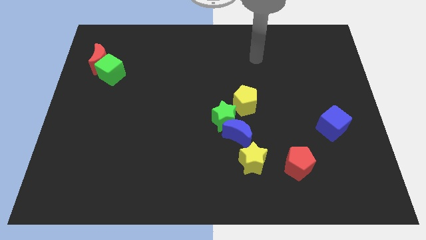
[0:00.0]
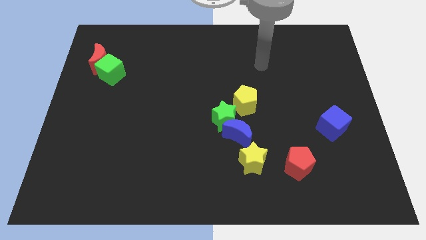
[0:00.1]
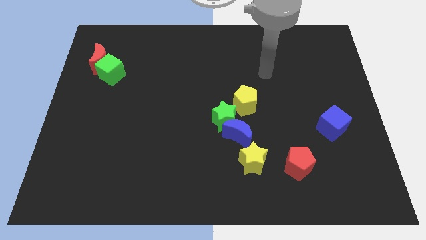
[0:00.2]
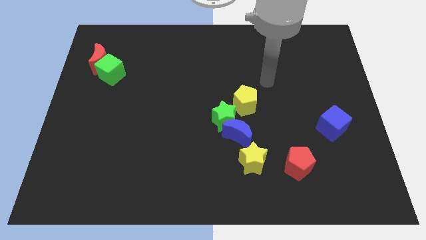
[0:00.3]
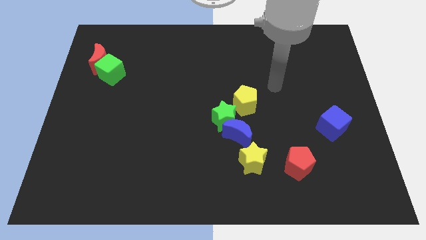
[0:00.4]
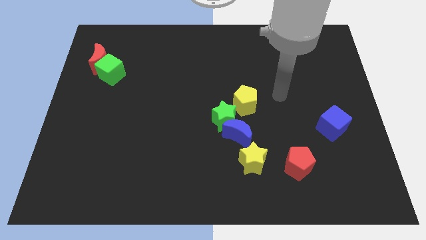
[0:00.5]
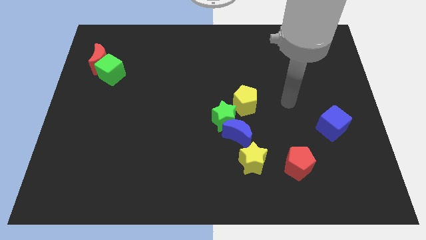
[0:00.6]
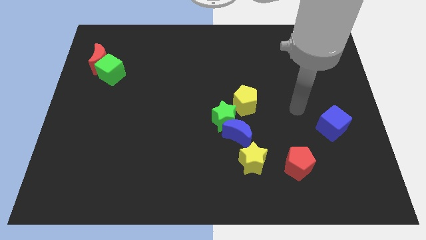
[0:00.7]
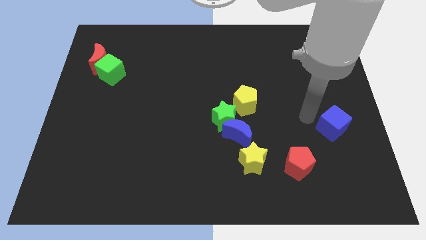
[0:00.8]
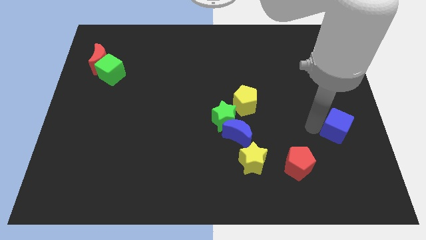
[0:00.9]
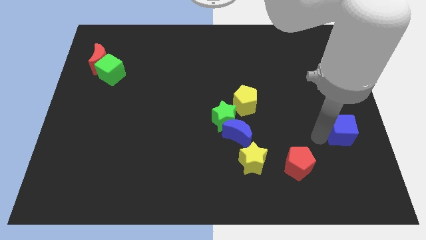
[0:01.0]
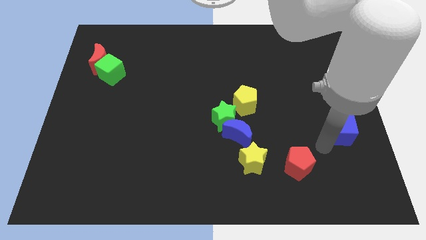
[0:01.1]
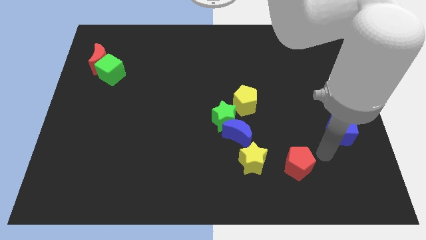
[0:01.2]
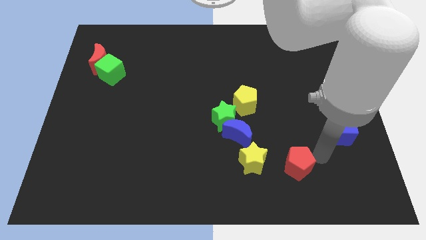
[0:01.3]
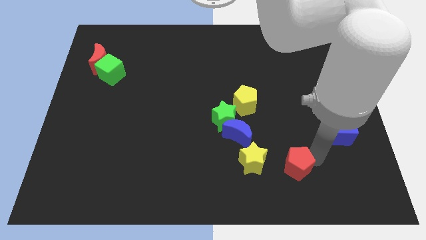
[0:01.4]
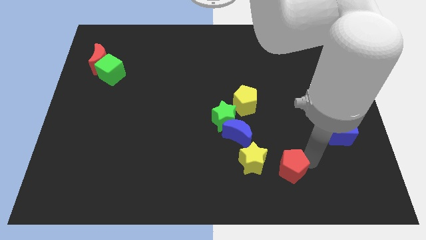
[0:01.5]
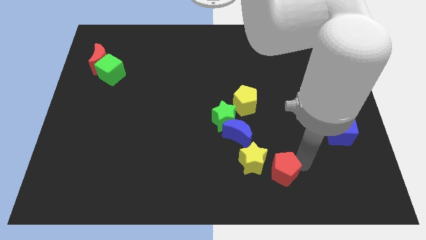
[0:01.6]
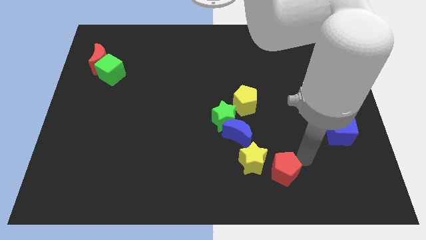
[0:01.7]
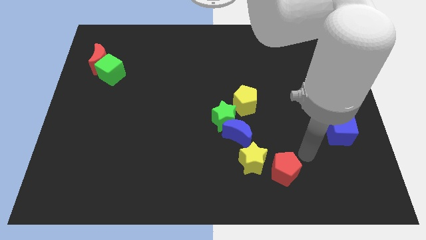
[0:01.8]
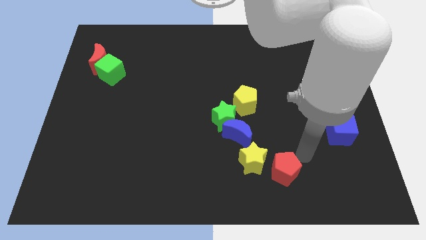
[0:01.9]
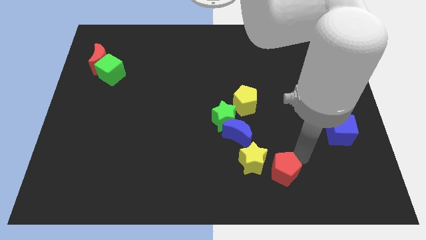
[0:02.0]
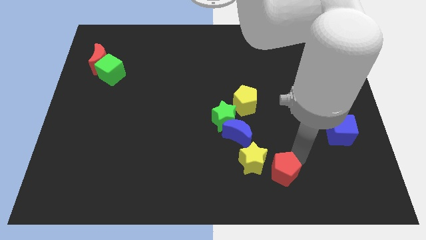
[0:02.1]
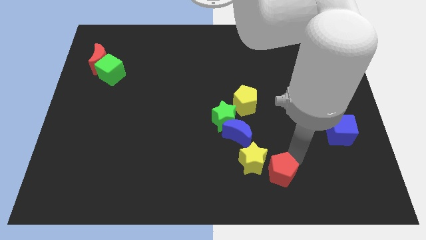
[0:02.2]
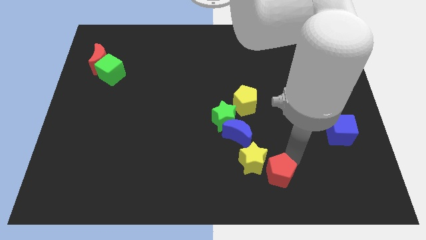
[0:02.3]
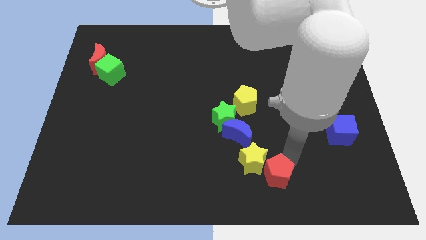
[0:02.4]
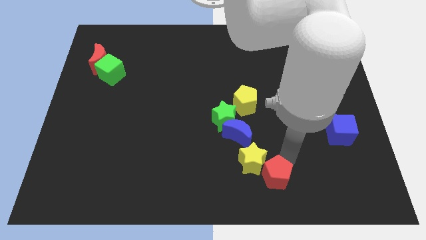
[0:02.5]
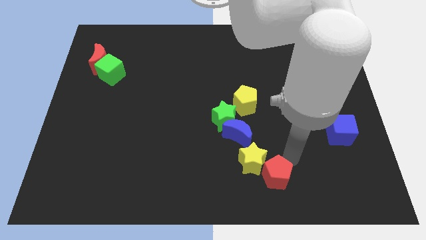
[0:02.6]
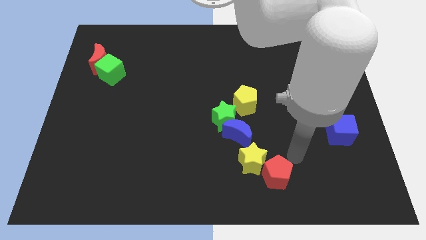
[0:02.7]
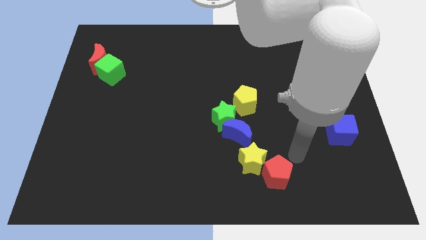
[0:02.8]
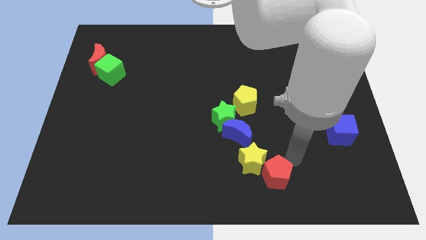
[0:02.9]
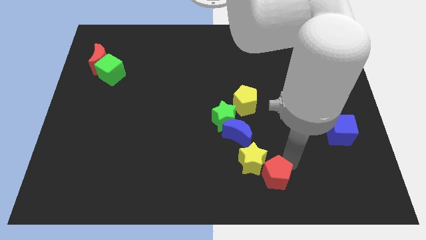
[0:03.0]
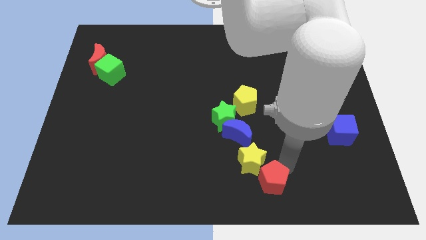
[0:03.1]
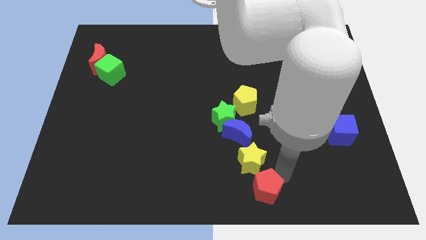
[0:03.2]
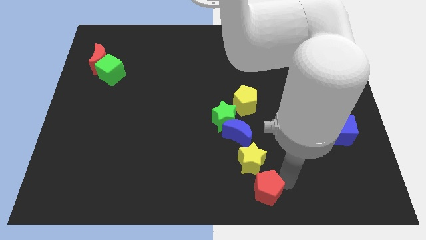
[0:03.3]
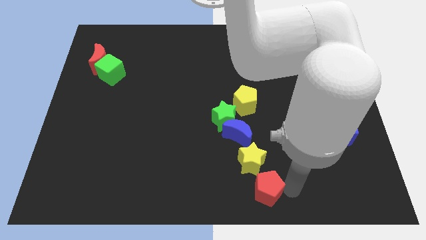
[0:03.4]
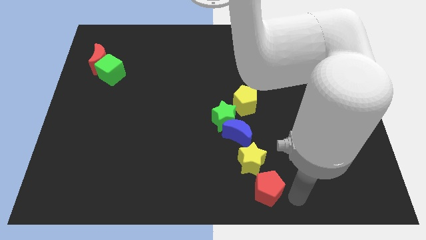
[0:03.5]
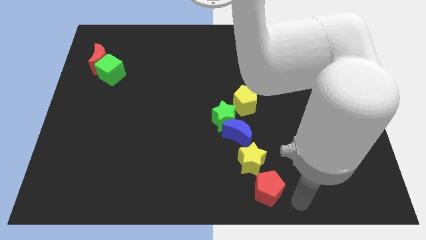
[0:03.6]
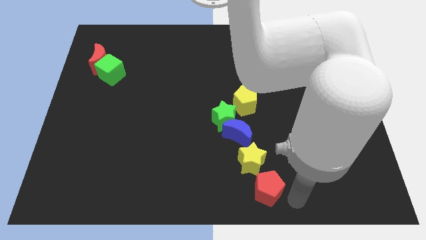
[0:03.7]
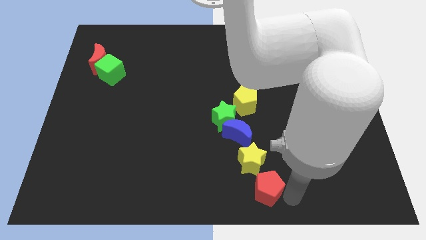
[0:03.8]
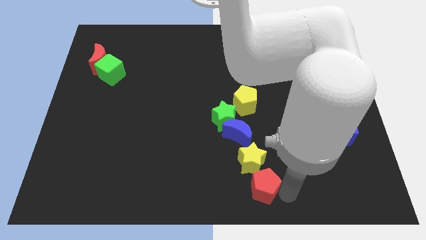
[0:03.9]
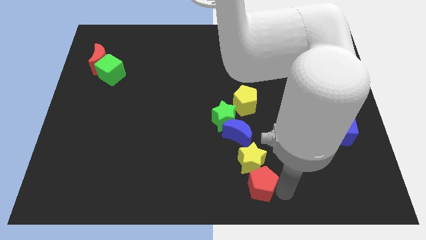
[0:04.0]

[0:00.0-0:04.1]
slightly slide the red pentagon to the left

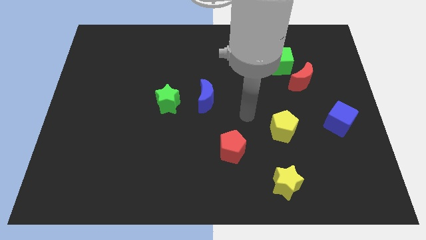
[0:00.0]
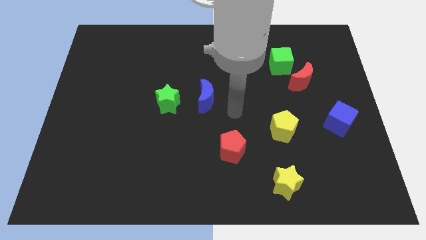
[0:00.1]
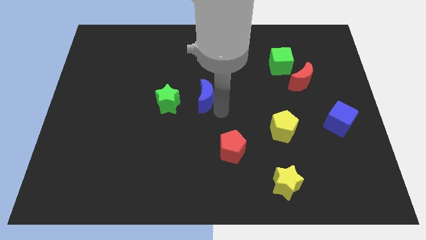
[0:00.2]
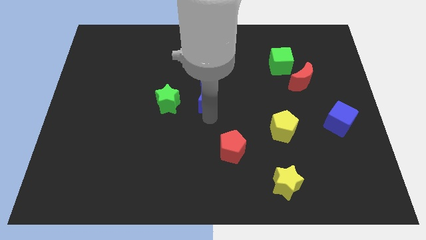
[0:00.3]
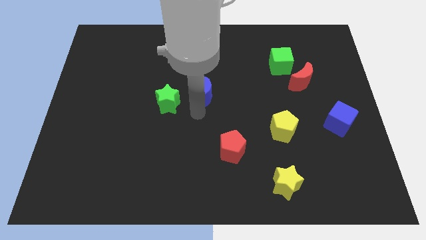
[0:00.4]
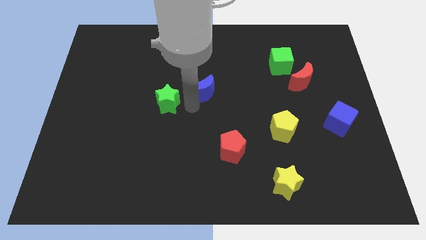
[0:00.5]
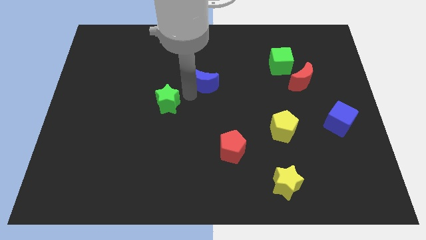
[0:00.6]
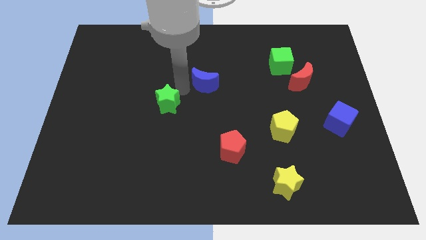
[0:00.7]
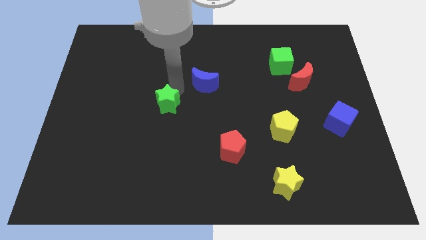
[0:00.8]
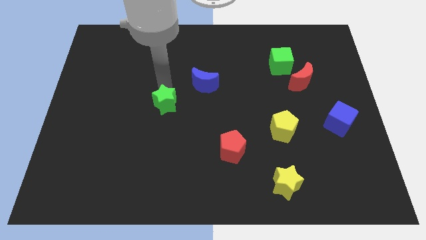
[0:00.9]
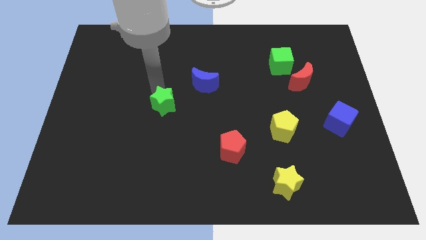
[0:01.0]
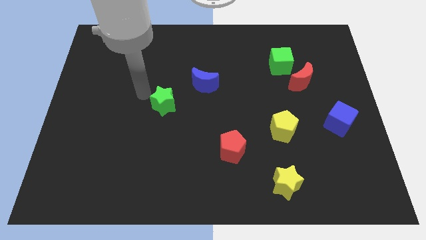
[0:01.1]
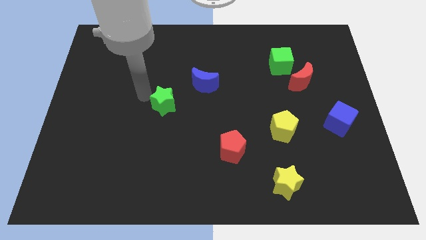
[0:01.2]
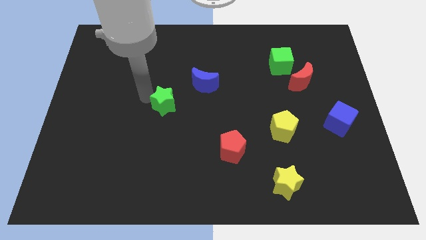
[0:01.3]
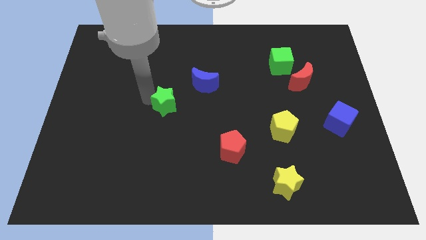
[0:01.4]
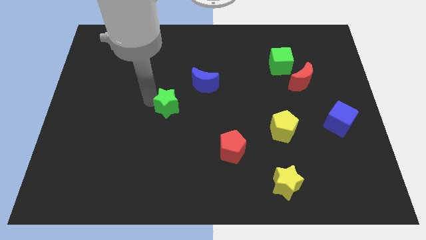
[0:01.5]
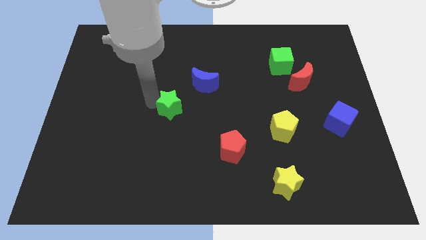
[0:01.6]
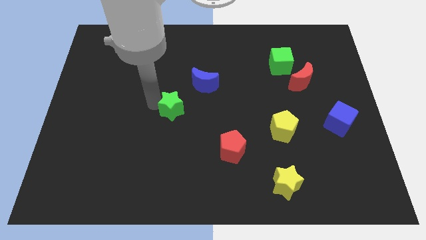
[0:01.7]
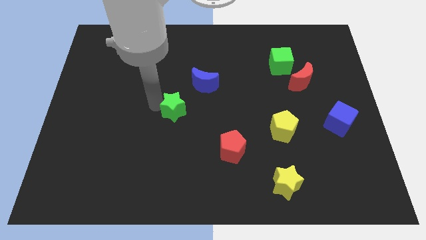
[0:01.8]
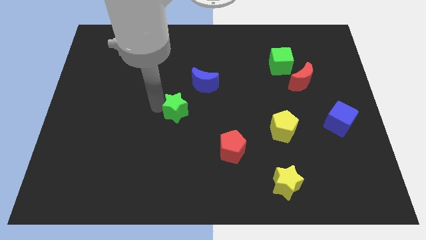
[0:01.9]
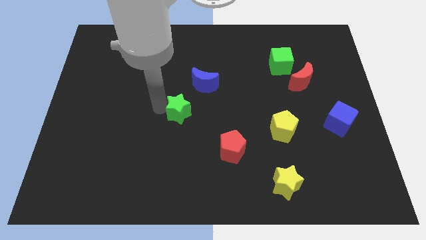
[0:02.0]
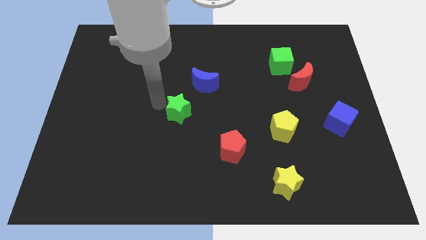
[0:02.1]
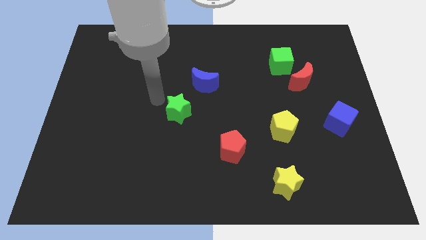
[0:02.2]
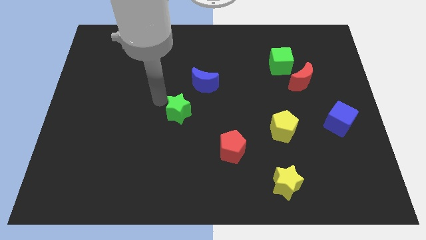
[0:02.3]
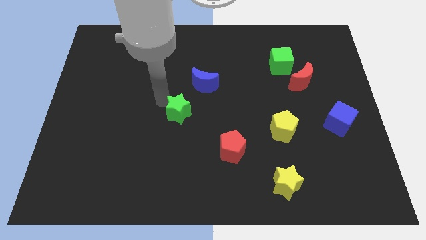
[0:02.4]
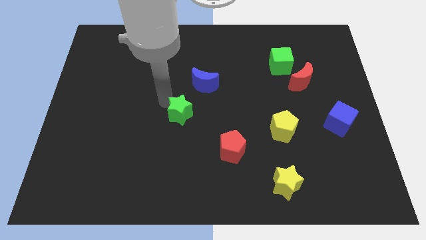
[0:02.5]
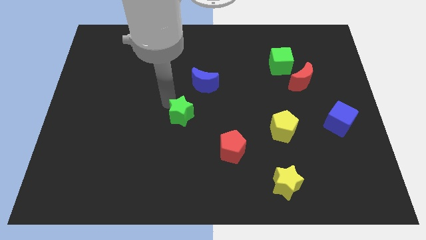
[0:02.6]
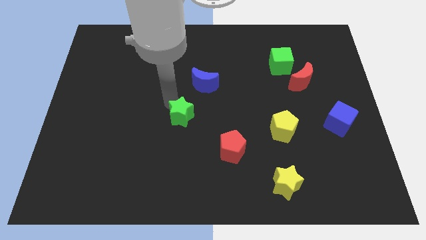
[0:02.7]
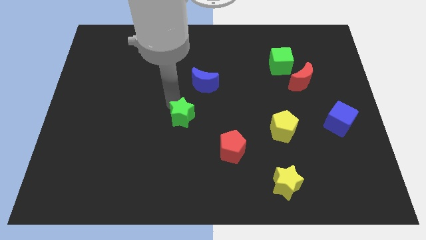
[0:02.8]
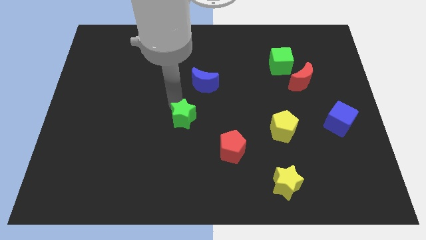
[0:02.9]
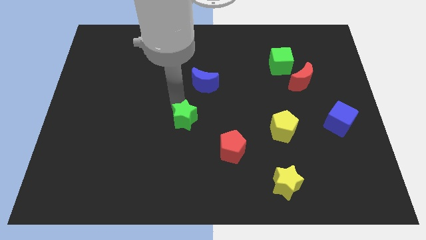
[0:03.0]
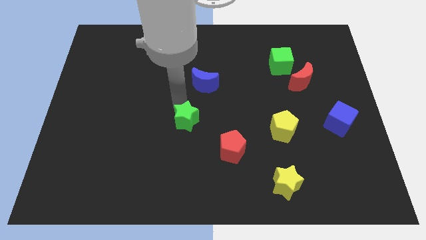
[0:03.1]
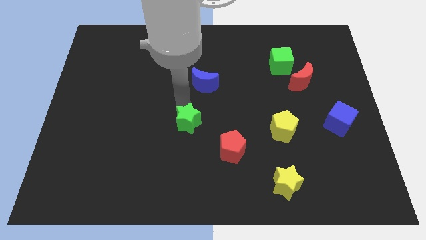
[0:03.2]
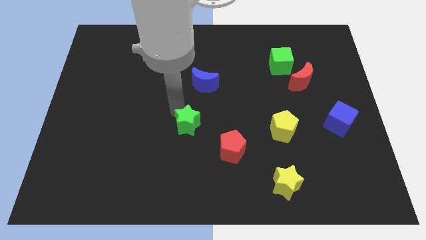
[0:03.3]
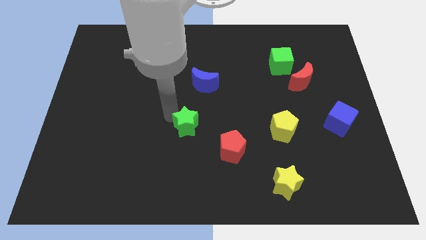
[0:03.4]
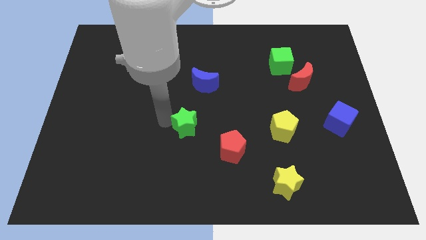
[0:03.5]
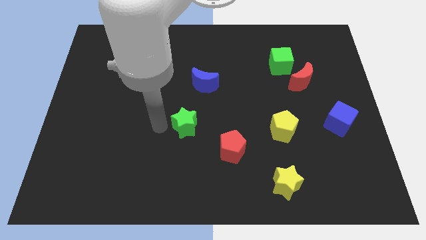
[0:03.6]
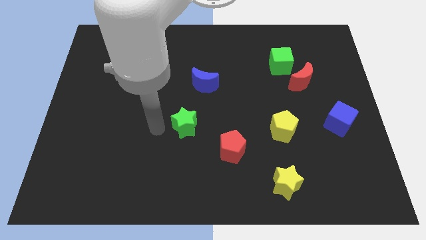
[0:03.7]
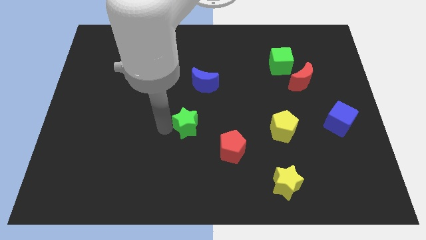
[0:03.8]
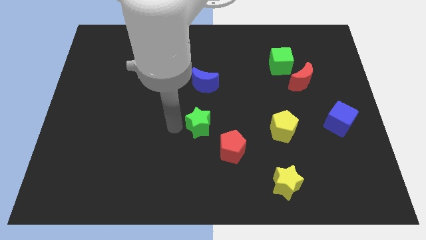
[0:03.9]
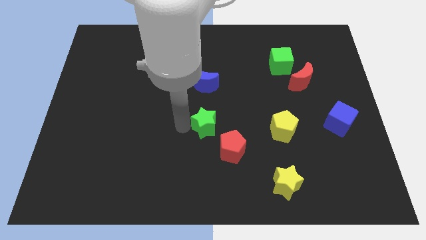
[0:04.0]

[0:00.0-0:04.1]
slightly slide the green star to the right

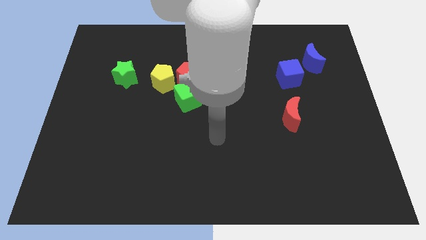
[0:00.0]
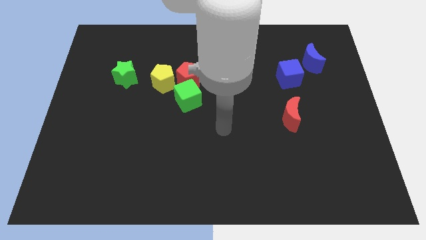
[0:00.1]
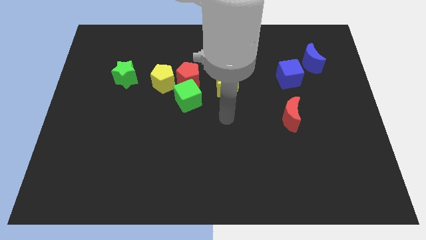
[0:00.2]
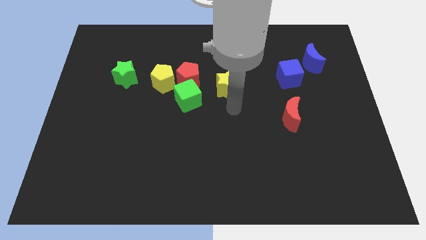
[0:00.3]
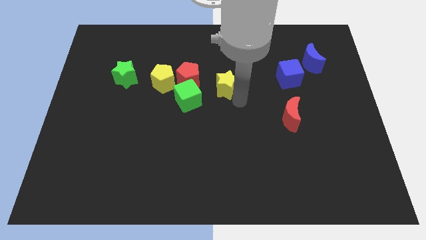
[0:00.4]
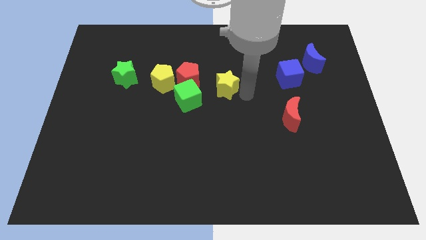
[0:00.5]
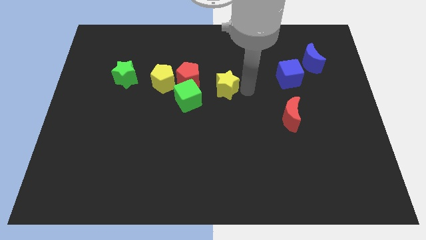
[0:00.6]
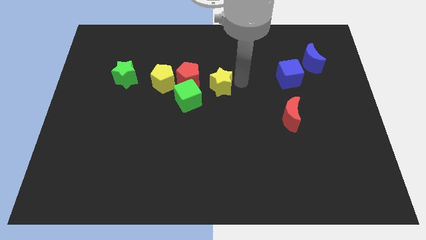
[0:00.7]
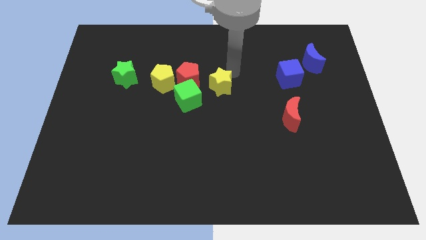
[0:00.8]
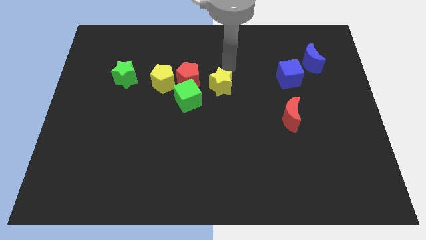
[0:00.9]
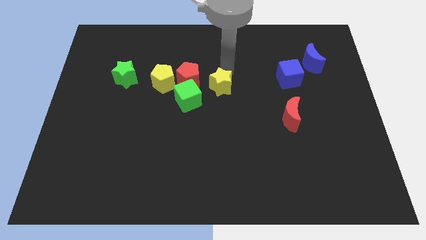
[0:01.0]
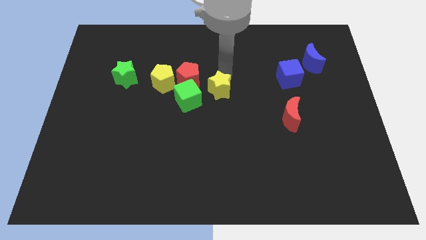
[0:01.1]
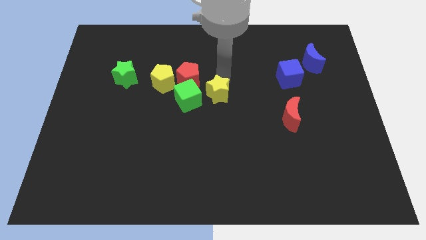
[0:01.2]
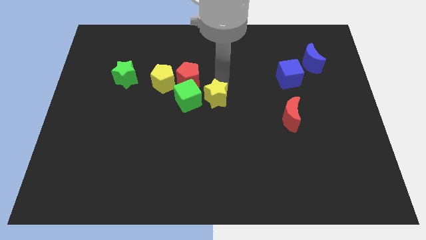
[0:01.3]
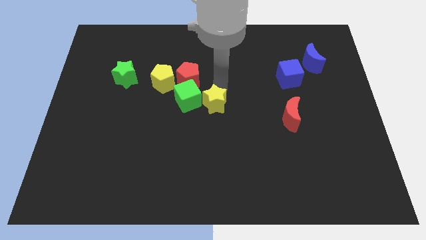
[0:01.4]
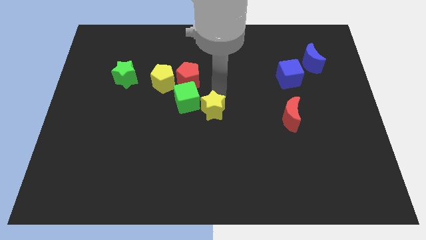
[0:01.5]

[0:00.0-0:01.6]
slightly slide the yellow star downwards and then left
